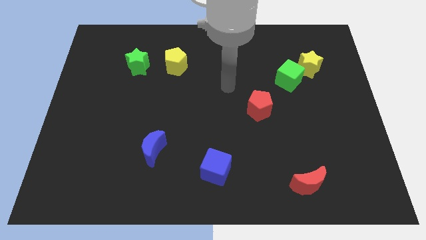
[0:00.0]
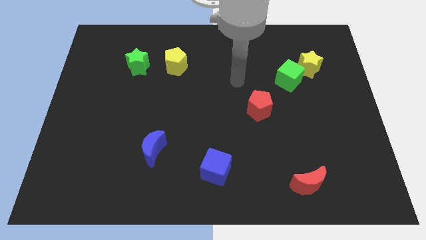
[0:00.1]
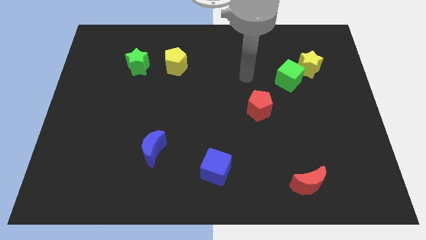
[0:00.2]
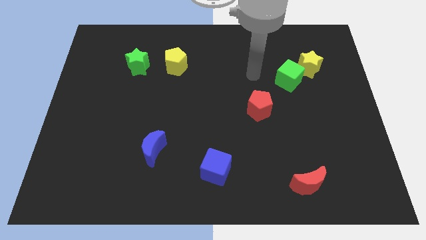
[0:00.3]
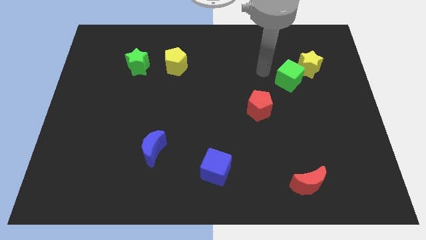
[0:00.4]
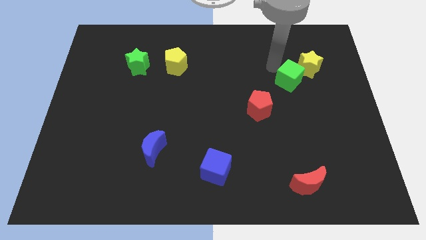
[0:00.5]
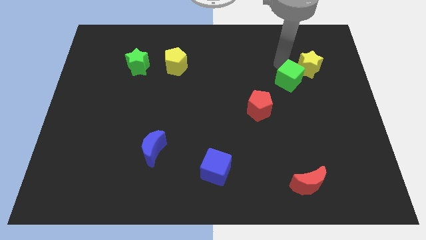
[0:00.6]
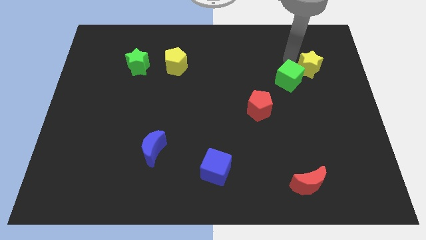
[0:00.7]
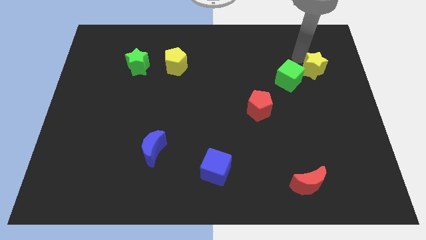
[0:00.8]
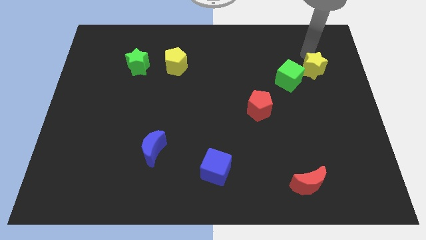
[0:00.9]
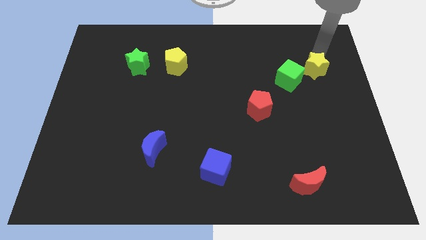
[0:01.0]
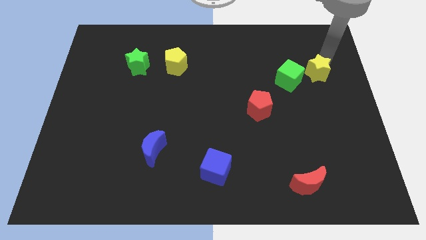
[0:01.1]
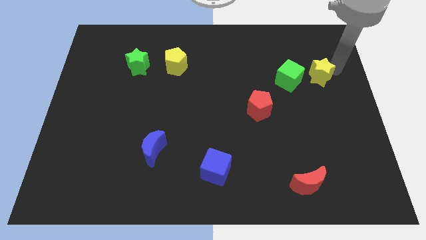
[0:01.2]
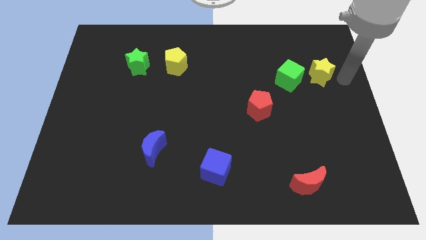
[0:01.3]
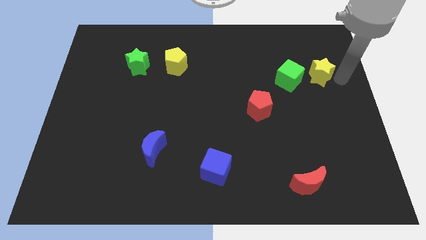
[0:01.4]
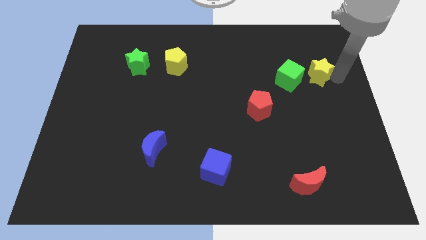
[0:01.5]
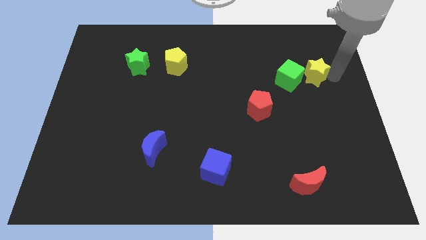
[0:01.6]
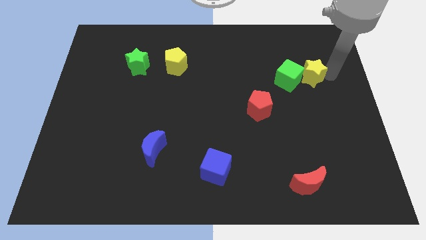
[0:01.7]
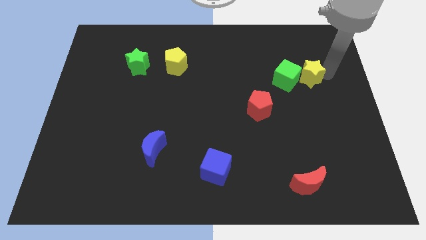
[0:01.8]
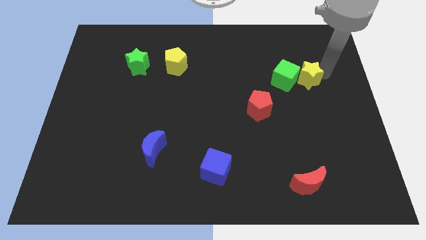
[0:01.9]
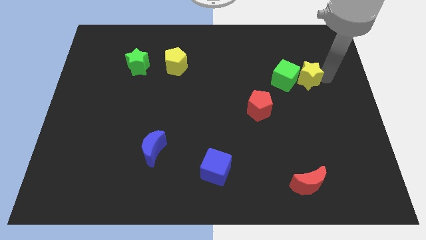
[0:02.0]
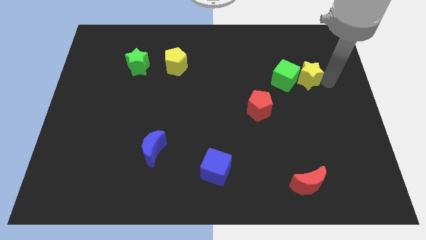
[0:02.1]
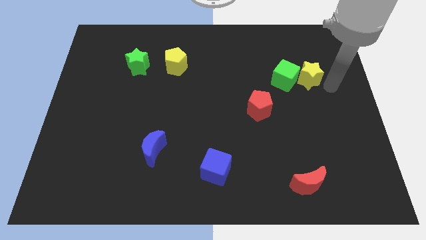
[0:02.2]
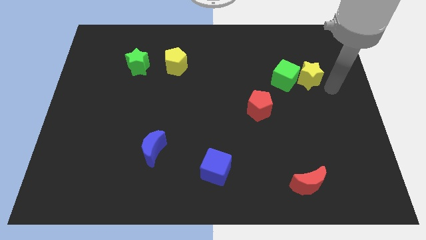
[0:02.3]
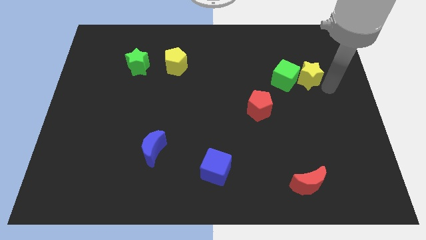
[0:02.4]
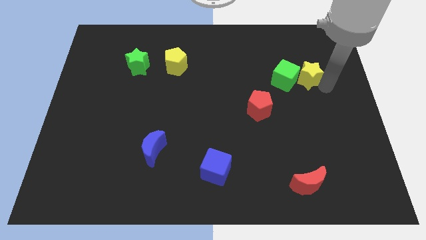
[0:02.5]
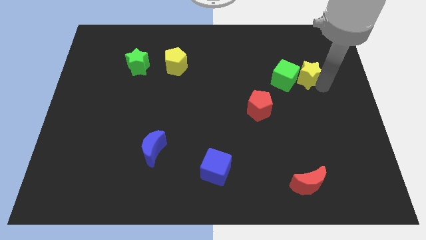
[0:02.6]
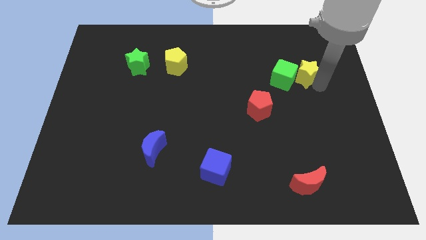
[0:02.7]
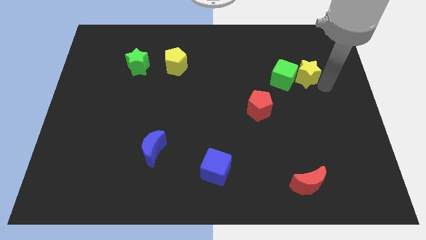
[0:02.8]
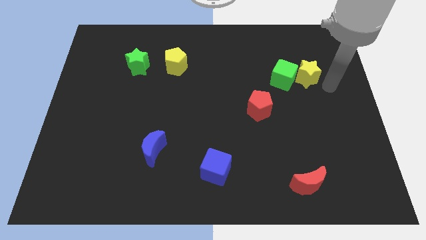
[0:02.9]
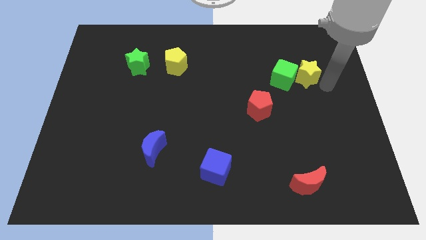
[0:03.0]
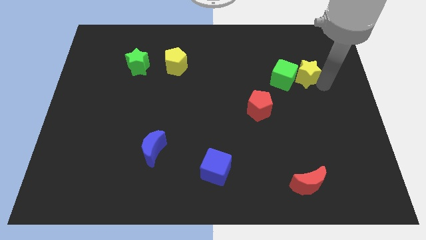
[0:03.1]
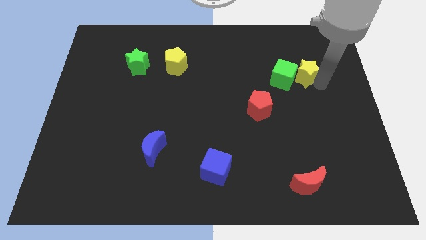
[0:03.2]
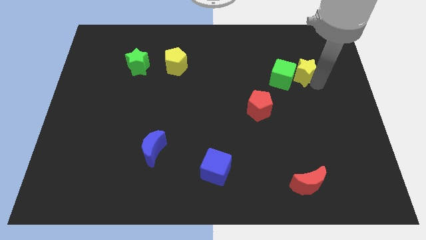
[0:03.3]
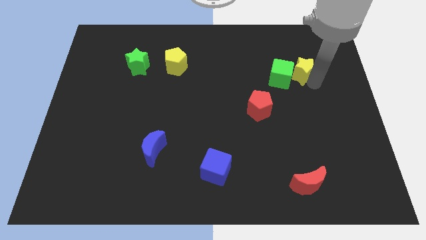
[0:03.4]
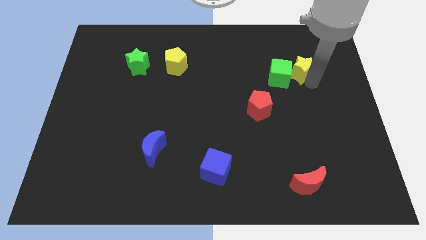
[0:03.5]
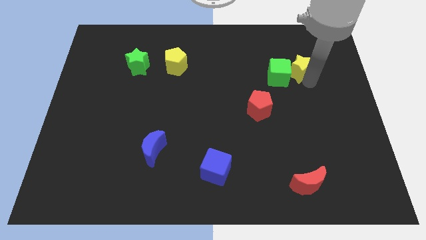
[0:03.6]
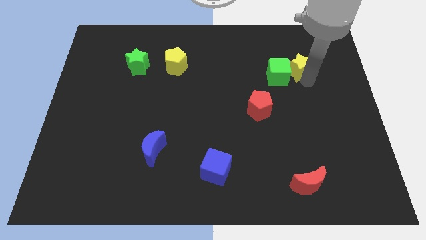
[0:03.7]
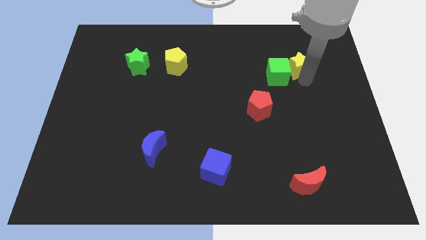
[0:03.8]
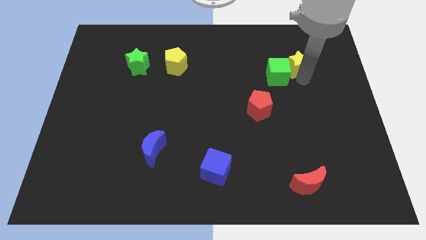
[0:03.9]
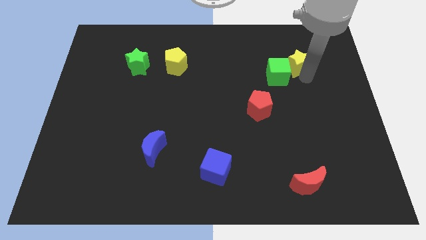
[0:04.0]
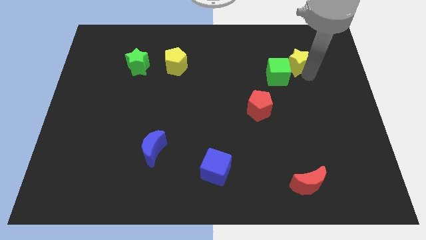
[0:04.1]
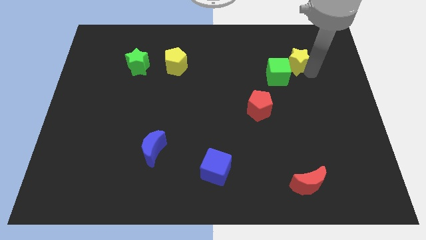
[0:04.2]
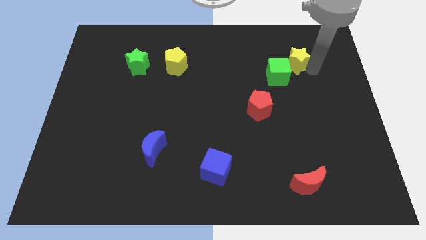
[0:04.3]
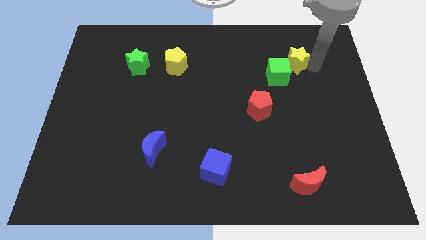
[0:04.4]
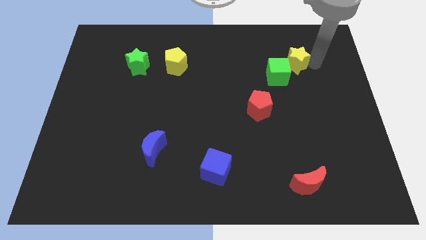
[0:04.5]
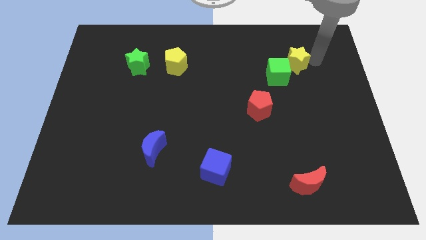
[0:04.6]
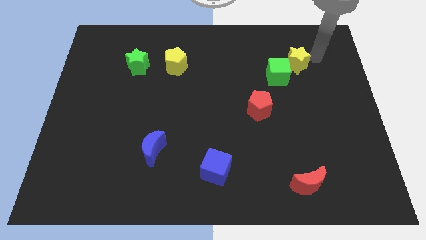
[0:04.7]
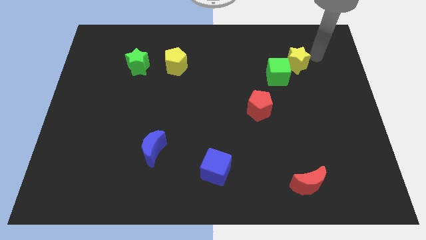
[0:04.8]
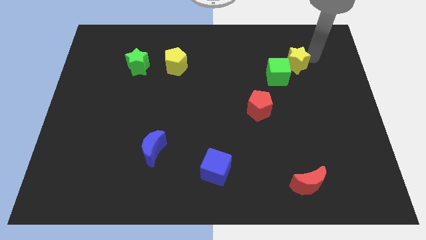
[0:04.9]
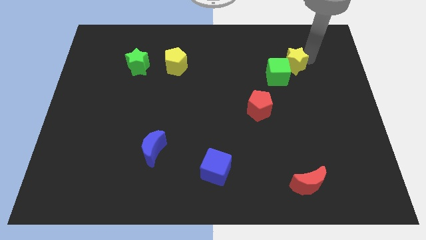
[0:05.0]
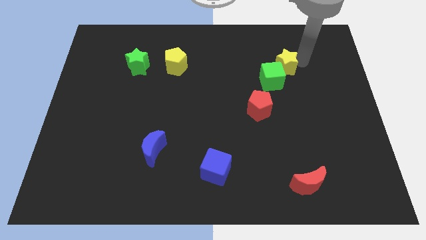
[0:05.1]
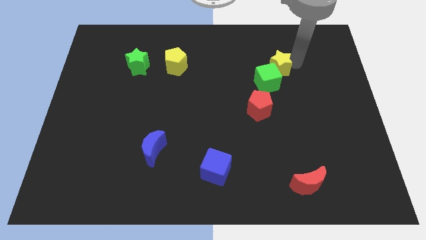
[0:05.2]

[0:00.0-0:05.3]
slightly slide the yellow star left

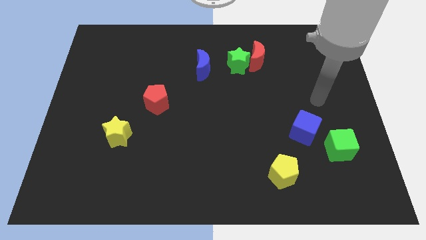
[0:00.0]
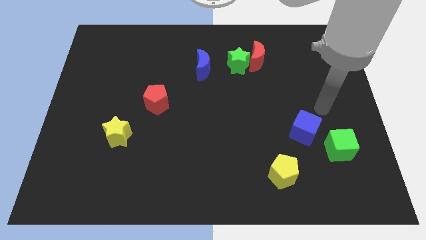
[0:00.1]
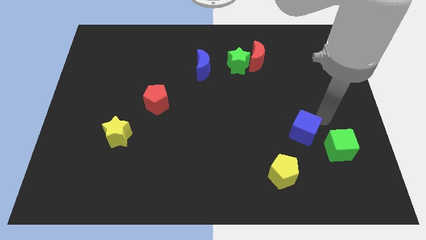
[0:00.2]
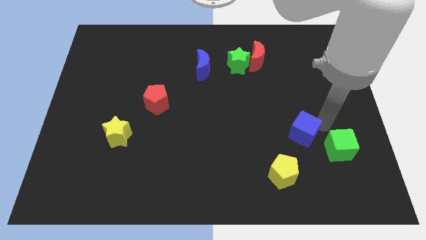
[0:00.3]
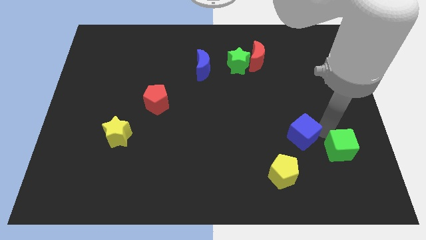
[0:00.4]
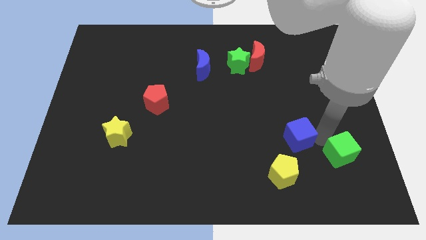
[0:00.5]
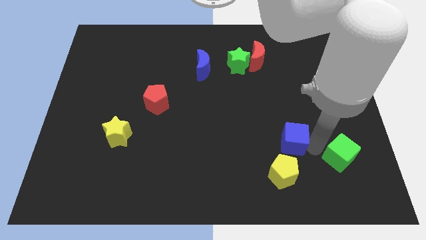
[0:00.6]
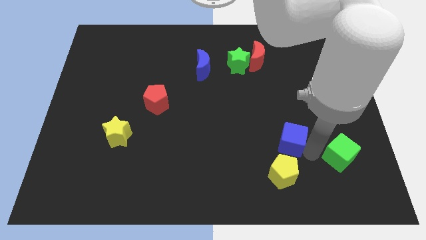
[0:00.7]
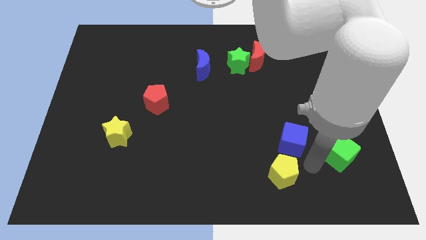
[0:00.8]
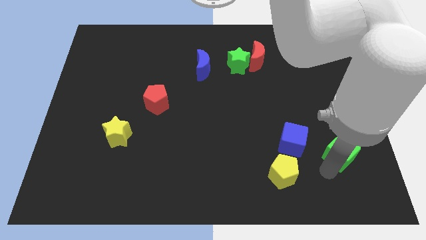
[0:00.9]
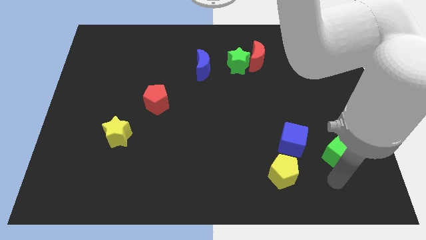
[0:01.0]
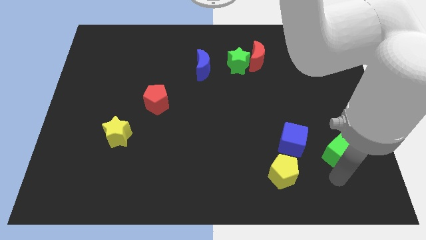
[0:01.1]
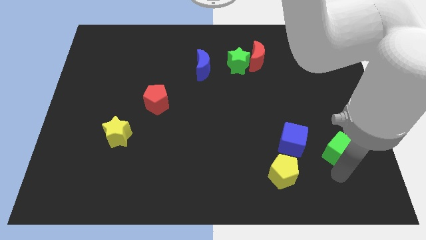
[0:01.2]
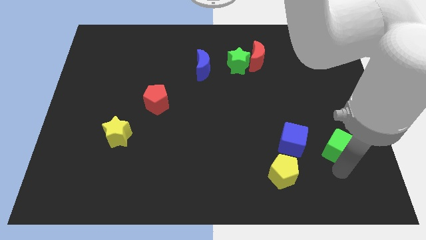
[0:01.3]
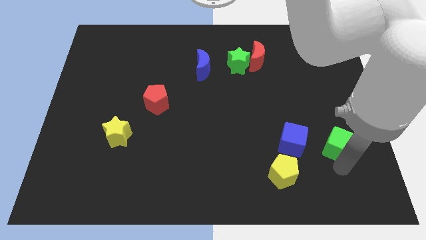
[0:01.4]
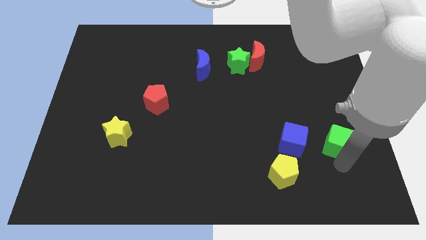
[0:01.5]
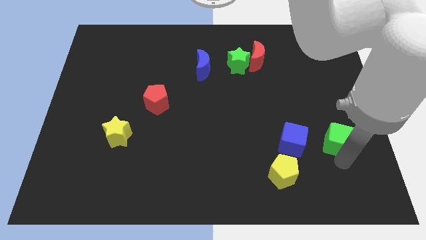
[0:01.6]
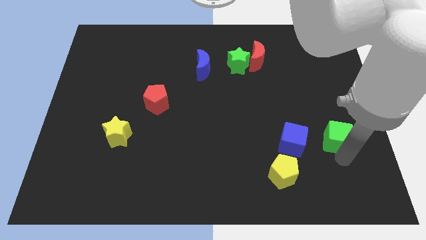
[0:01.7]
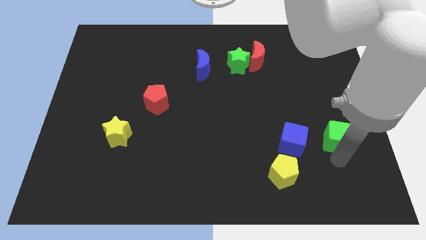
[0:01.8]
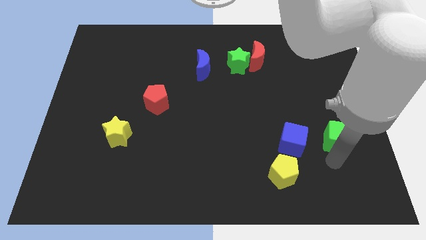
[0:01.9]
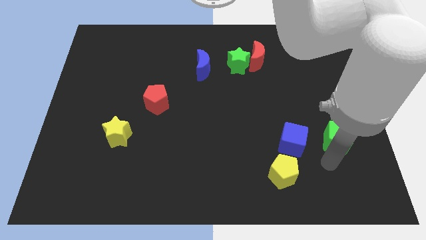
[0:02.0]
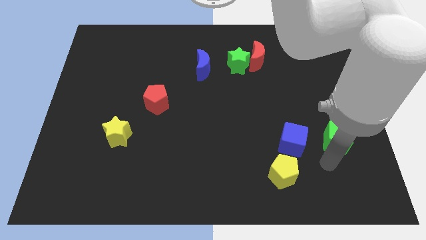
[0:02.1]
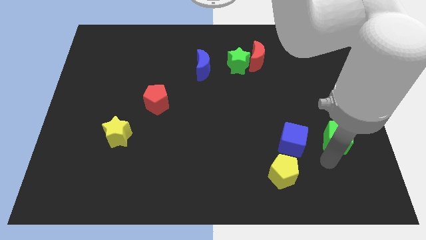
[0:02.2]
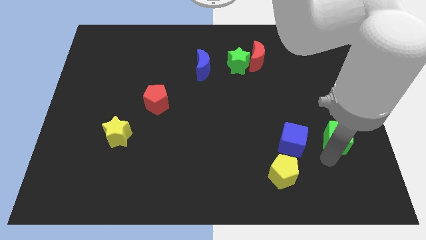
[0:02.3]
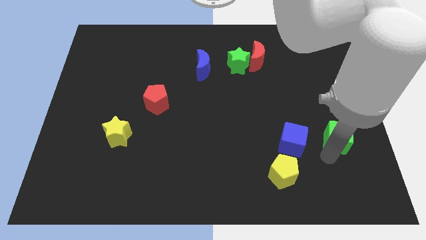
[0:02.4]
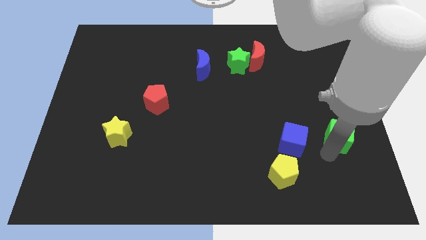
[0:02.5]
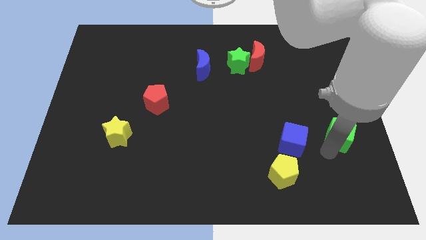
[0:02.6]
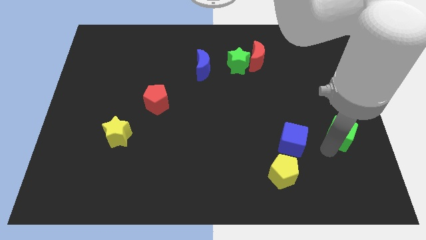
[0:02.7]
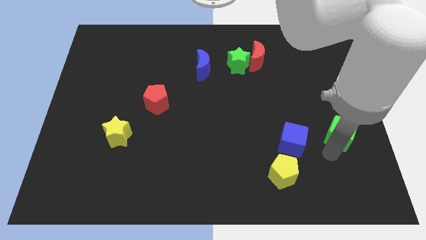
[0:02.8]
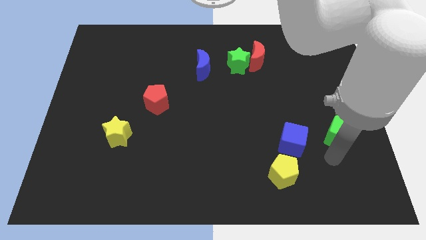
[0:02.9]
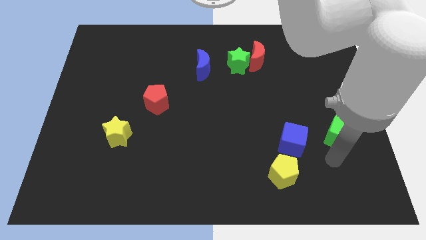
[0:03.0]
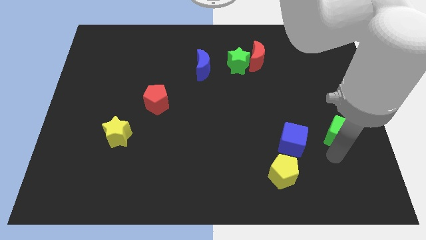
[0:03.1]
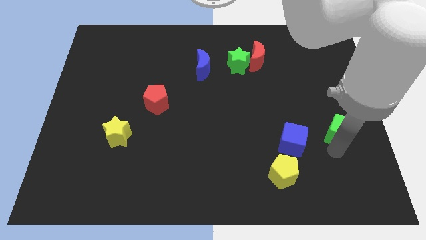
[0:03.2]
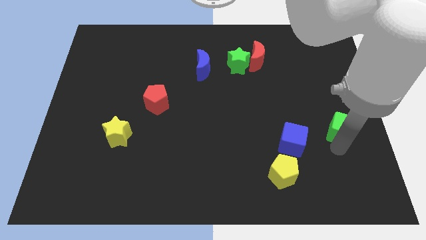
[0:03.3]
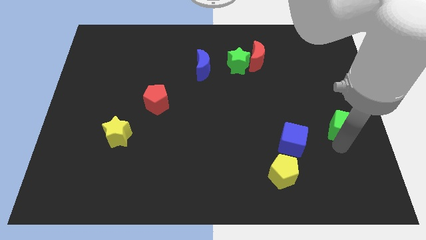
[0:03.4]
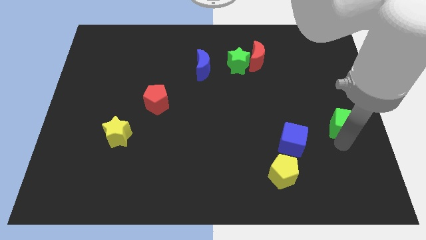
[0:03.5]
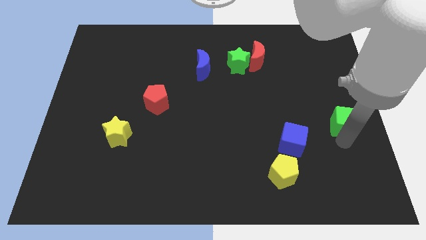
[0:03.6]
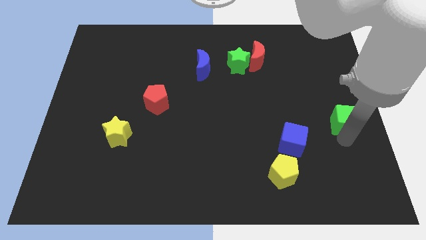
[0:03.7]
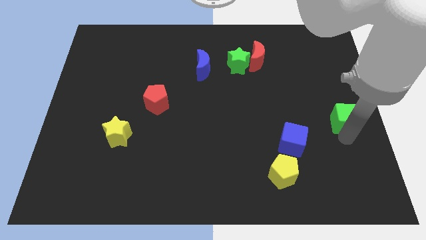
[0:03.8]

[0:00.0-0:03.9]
push the green cube upwards slightly
